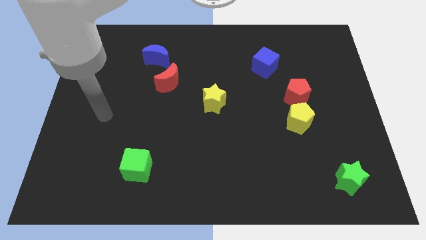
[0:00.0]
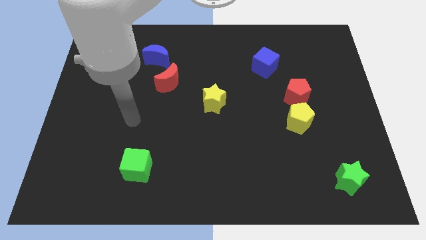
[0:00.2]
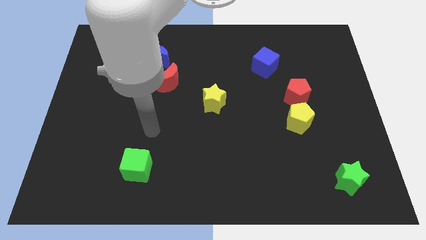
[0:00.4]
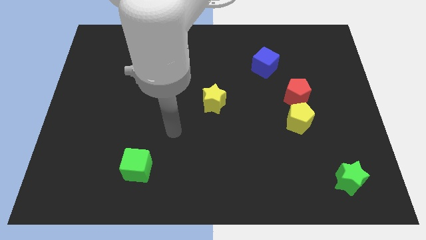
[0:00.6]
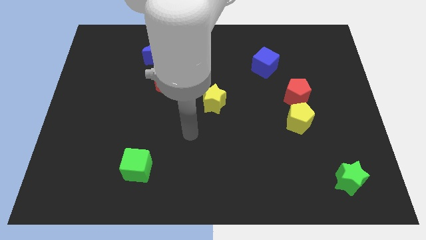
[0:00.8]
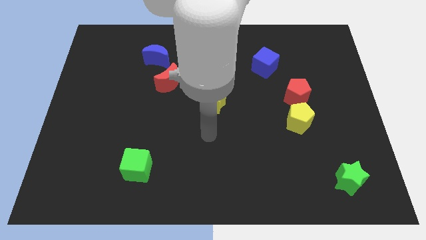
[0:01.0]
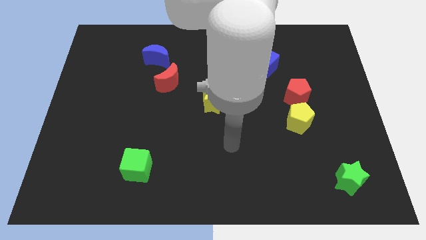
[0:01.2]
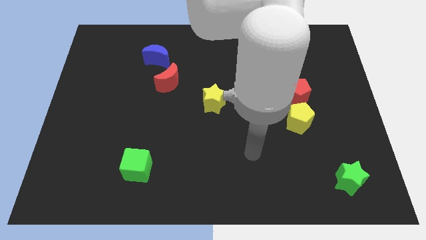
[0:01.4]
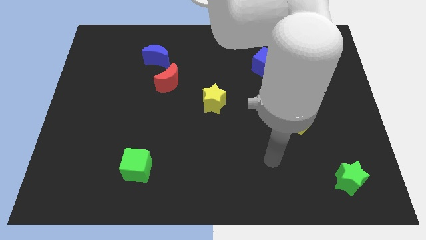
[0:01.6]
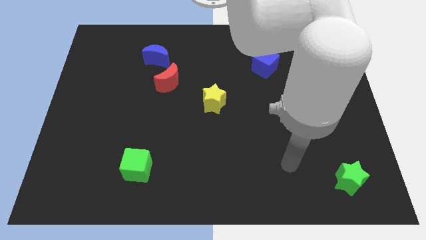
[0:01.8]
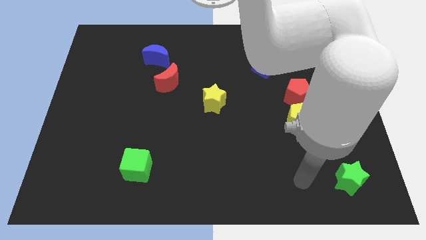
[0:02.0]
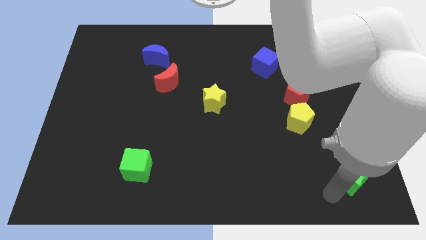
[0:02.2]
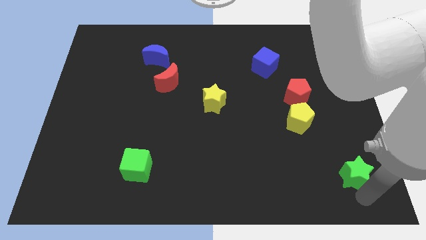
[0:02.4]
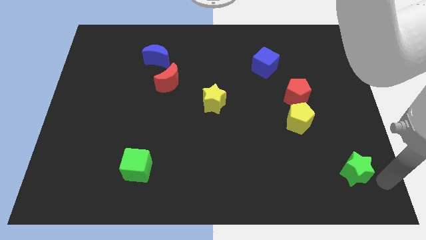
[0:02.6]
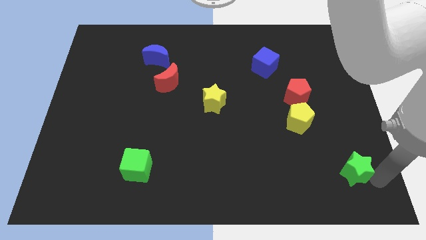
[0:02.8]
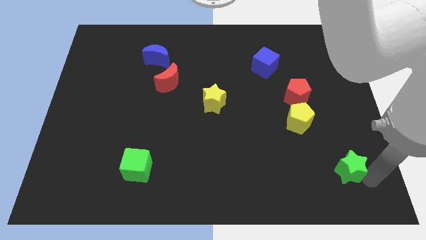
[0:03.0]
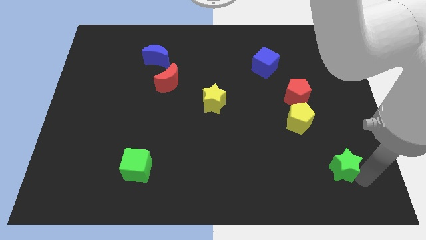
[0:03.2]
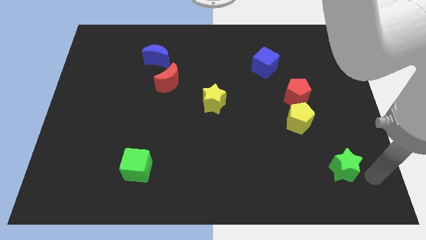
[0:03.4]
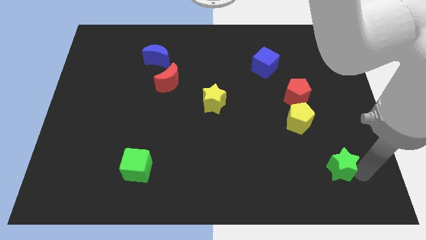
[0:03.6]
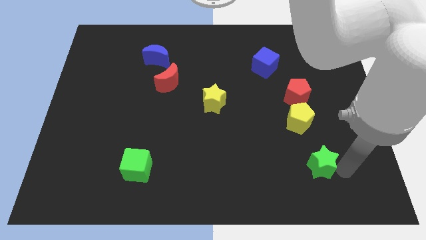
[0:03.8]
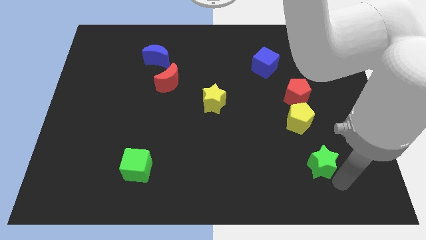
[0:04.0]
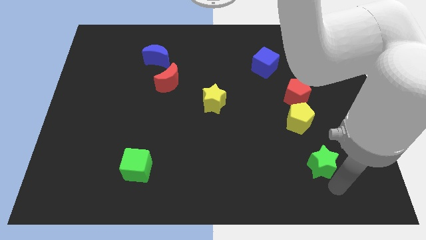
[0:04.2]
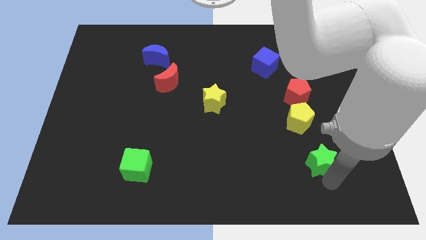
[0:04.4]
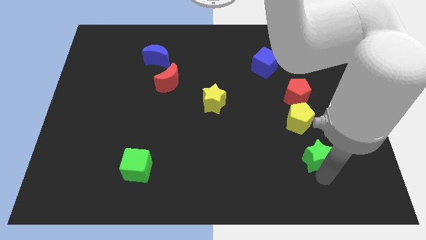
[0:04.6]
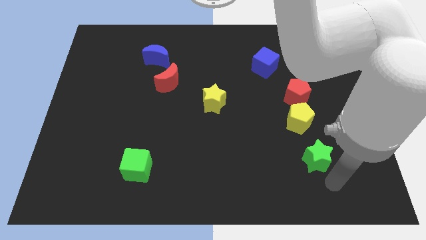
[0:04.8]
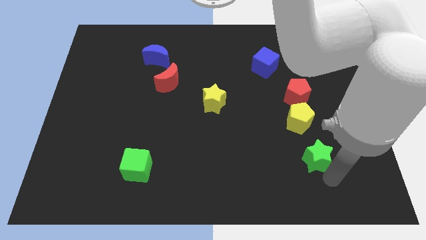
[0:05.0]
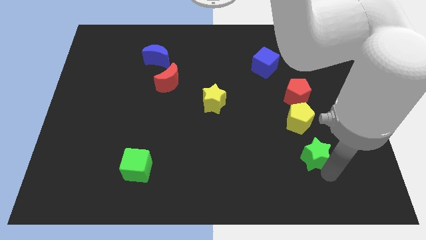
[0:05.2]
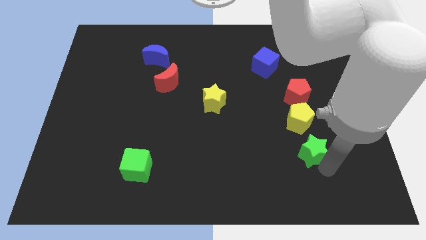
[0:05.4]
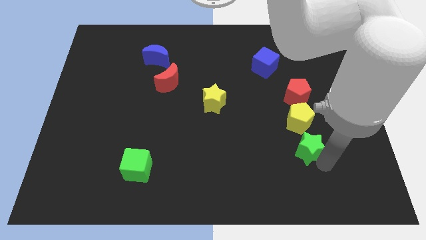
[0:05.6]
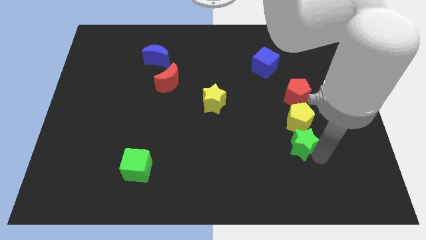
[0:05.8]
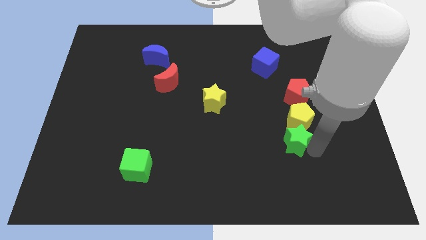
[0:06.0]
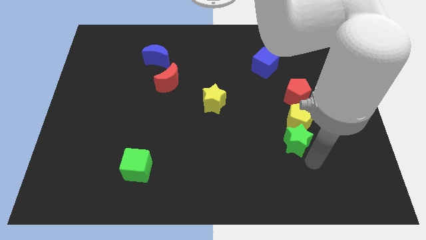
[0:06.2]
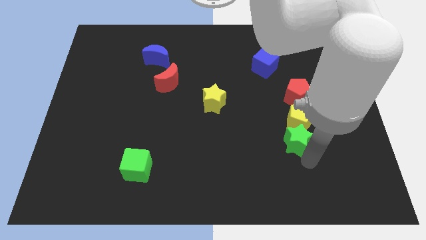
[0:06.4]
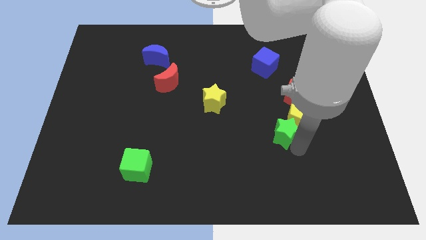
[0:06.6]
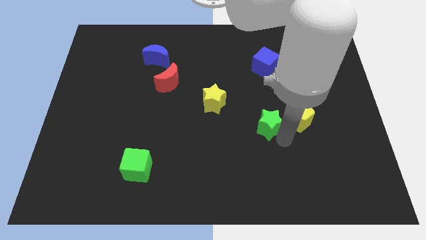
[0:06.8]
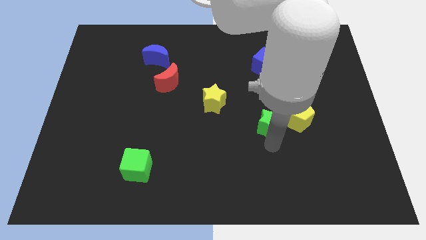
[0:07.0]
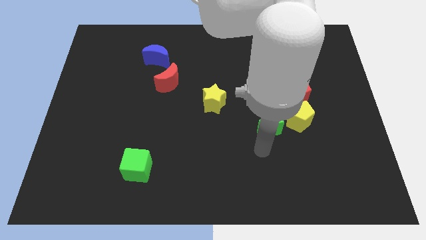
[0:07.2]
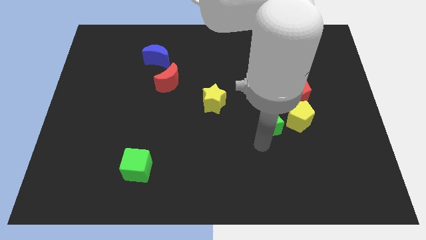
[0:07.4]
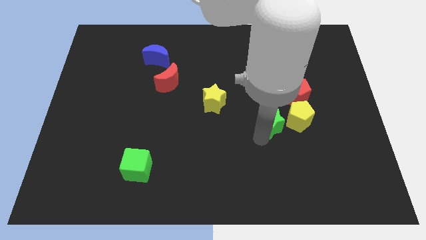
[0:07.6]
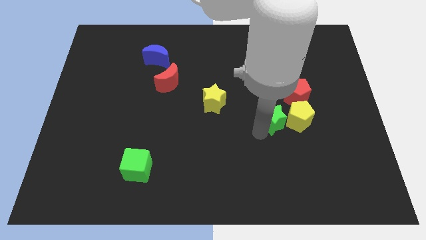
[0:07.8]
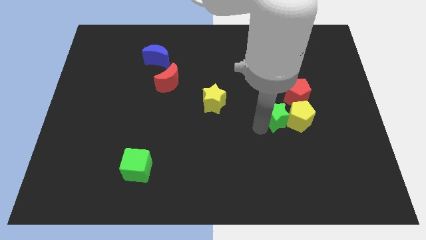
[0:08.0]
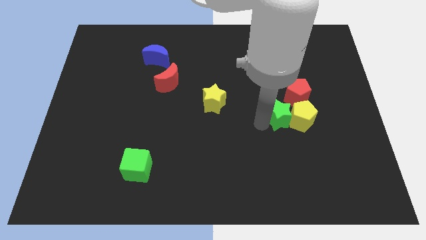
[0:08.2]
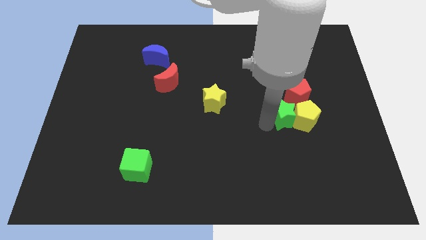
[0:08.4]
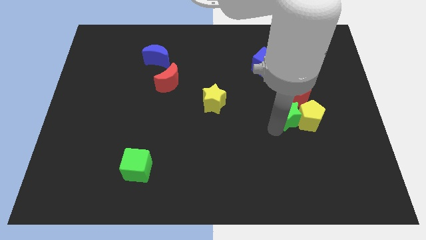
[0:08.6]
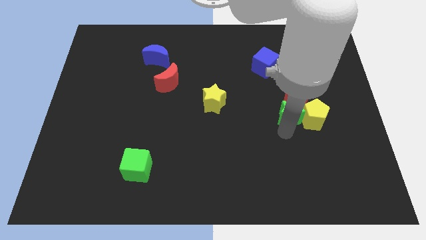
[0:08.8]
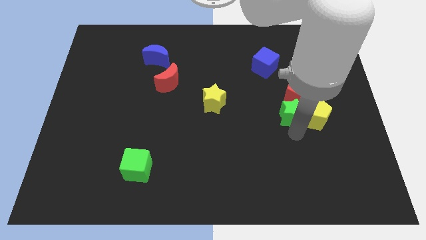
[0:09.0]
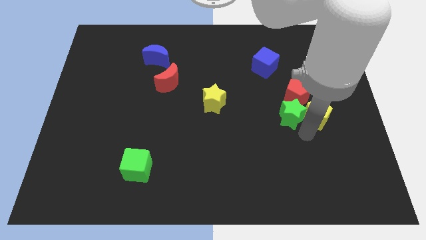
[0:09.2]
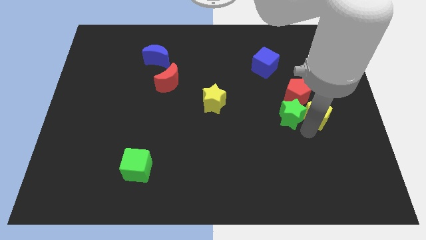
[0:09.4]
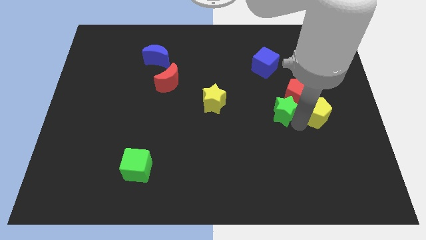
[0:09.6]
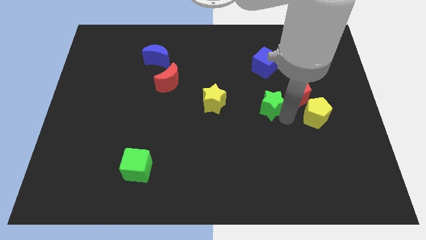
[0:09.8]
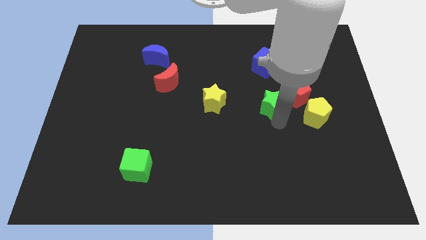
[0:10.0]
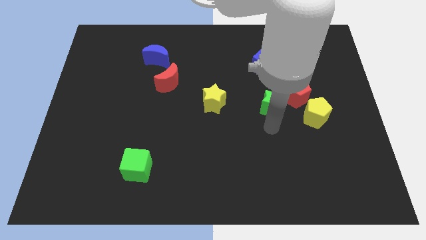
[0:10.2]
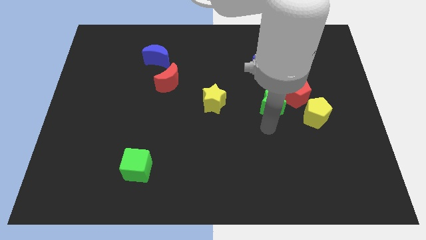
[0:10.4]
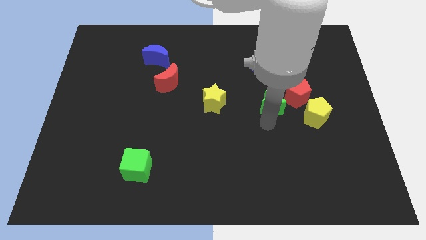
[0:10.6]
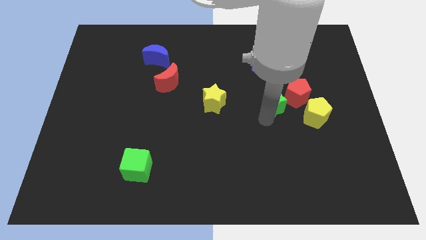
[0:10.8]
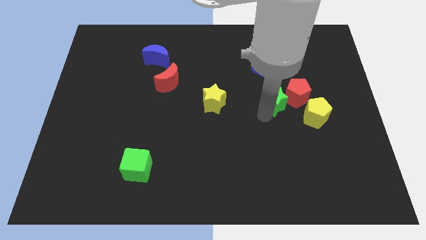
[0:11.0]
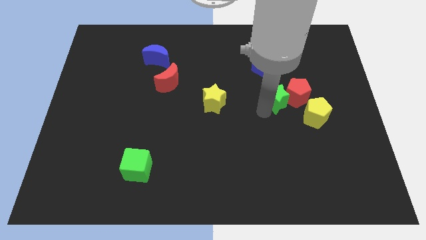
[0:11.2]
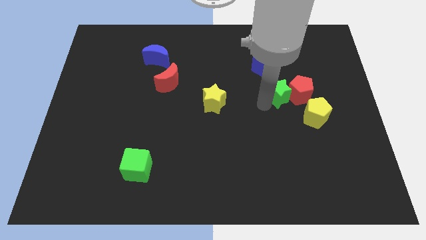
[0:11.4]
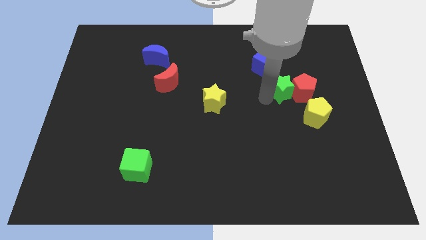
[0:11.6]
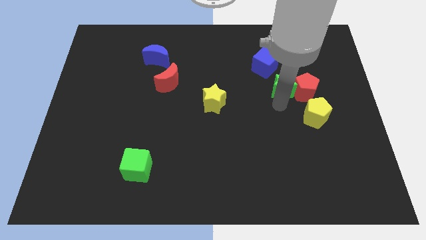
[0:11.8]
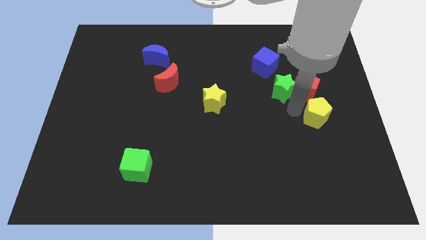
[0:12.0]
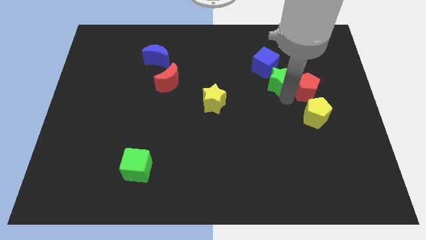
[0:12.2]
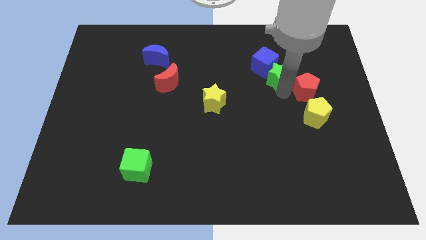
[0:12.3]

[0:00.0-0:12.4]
push the green star next to the blue cube

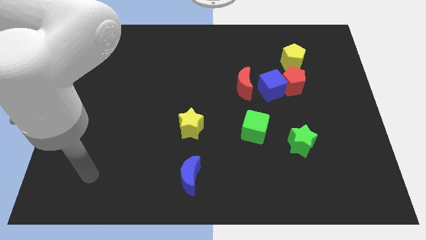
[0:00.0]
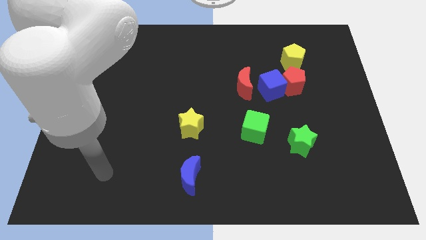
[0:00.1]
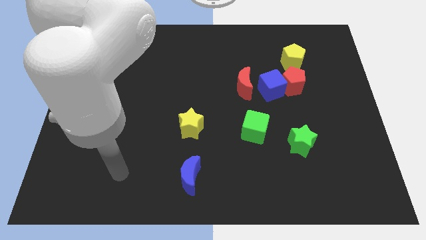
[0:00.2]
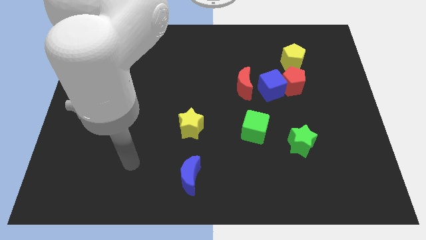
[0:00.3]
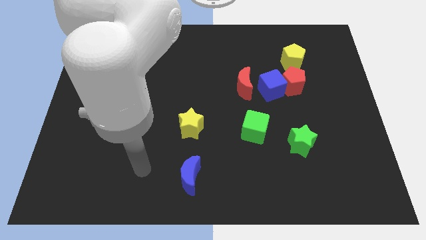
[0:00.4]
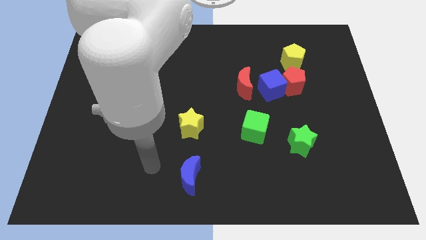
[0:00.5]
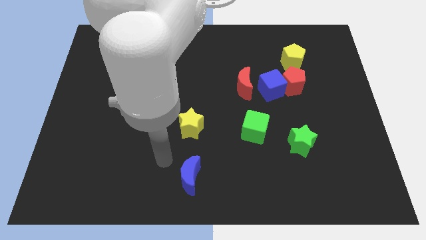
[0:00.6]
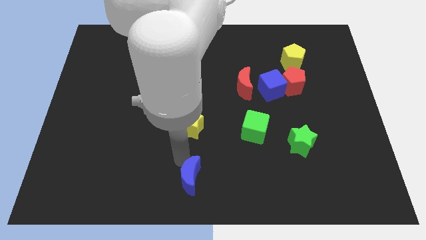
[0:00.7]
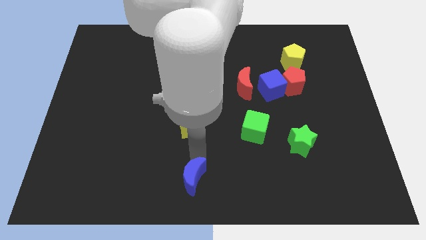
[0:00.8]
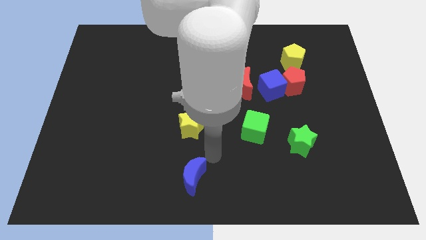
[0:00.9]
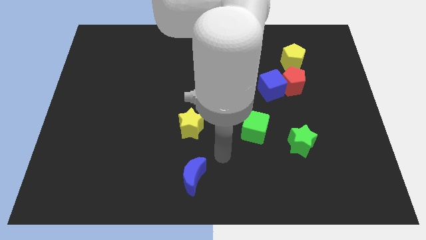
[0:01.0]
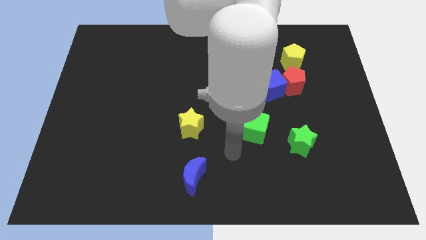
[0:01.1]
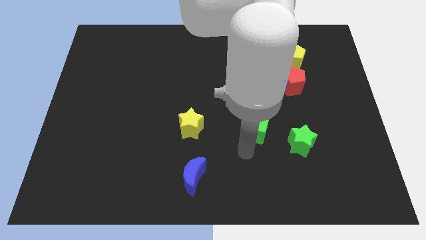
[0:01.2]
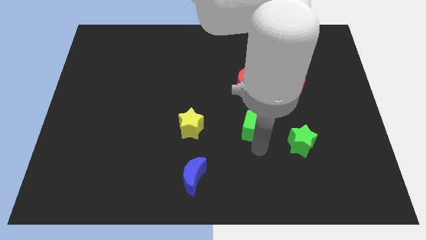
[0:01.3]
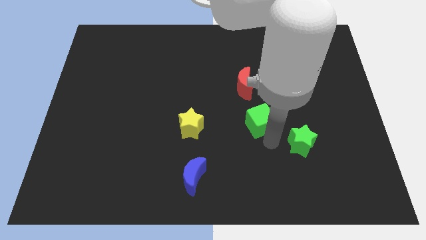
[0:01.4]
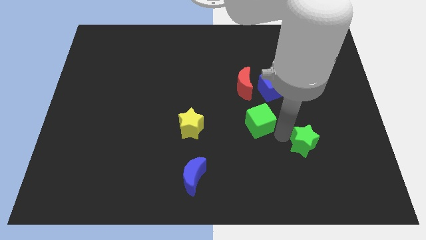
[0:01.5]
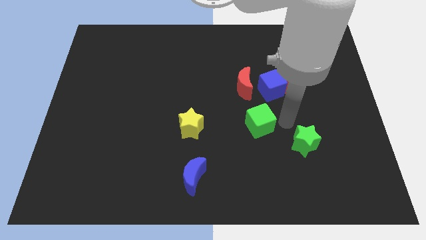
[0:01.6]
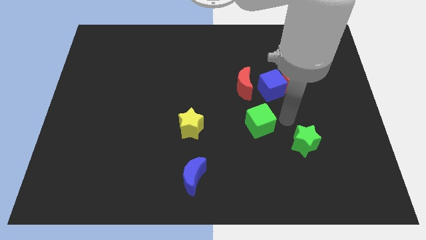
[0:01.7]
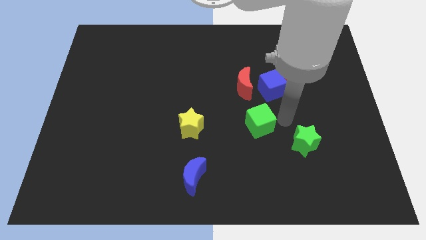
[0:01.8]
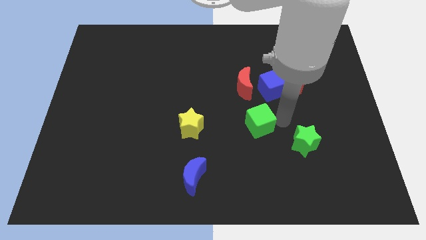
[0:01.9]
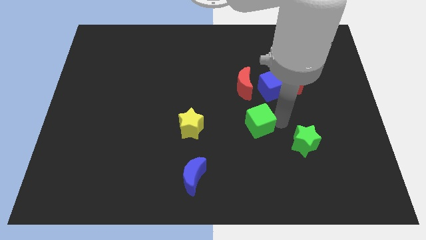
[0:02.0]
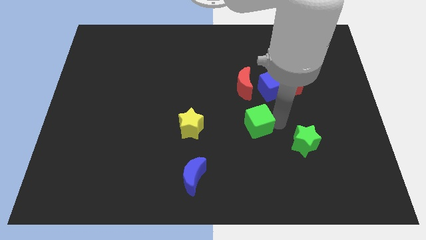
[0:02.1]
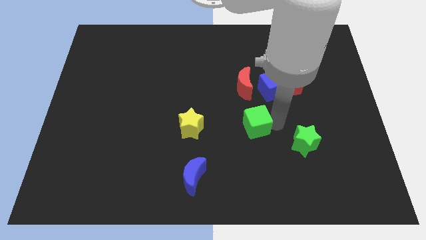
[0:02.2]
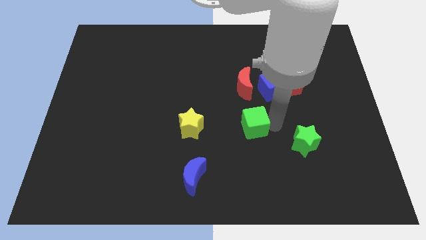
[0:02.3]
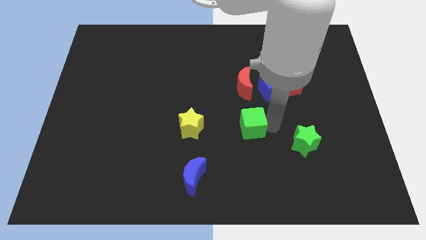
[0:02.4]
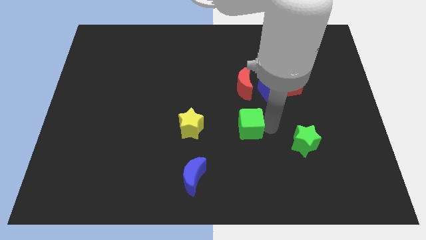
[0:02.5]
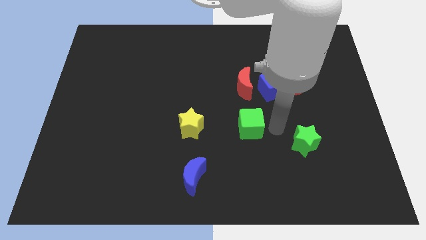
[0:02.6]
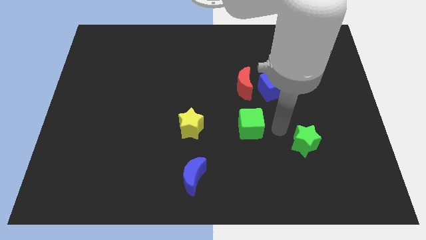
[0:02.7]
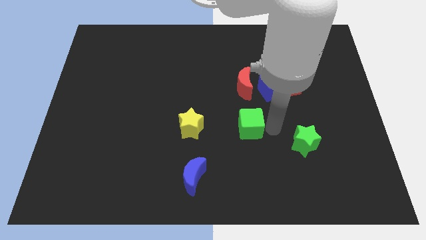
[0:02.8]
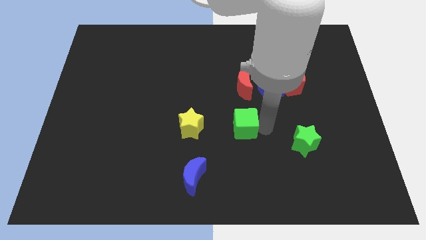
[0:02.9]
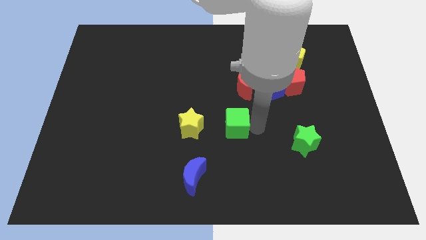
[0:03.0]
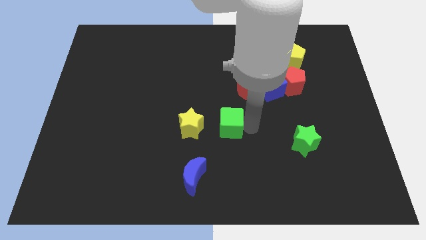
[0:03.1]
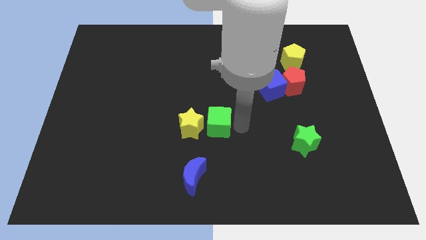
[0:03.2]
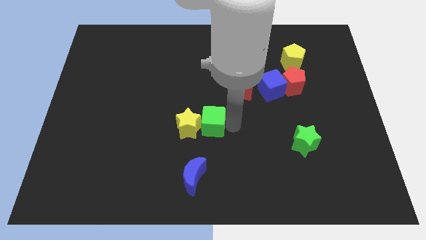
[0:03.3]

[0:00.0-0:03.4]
push the green cube towards the yellow star
